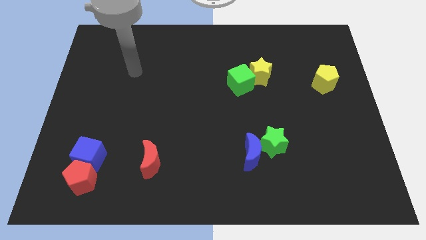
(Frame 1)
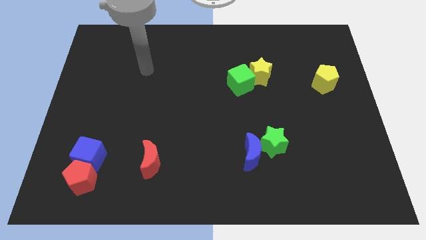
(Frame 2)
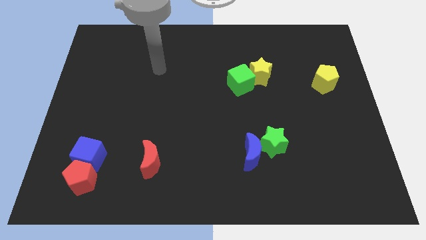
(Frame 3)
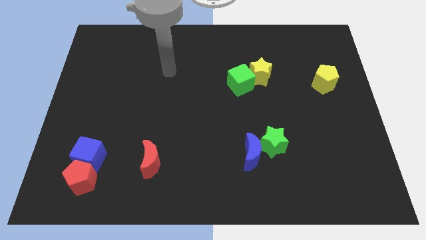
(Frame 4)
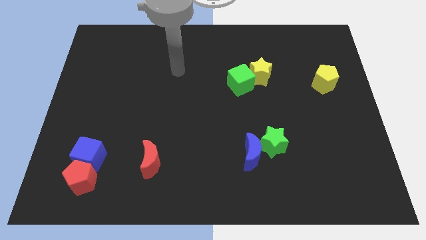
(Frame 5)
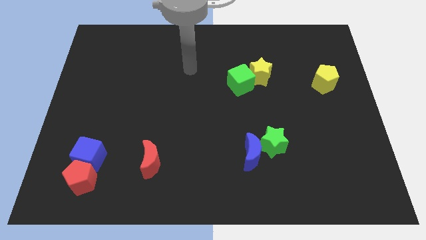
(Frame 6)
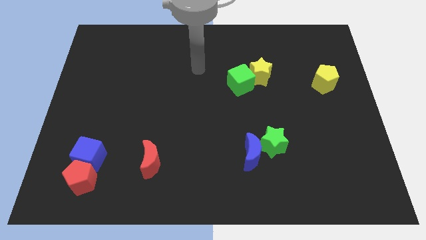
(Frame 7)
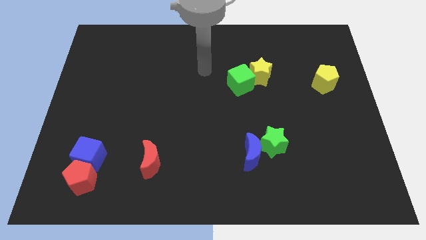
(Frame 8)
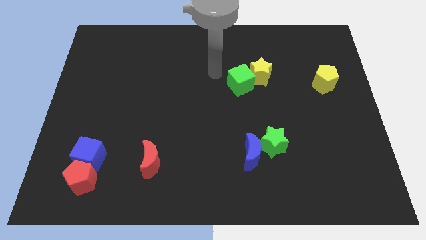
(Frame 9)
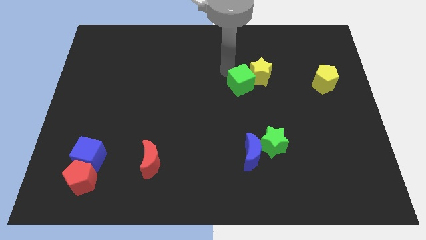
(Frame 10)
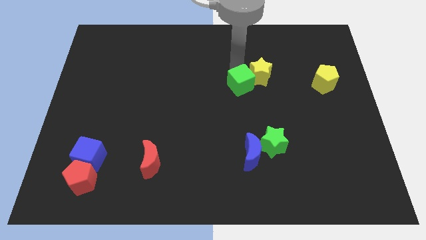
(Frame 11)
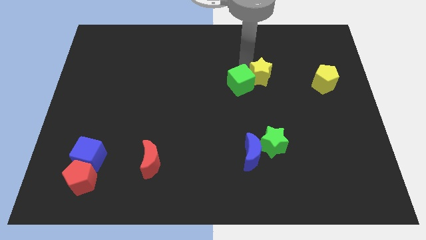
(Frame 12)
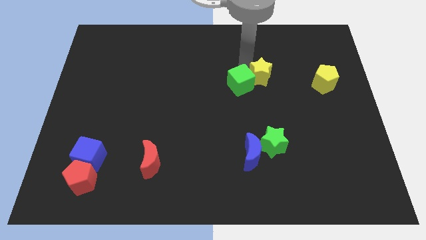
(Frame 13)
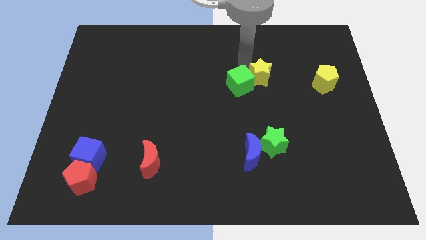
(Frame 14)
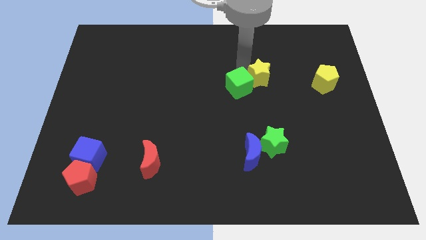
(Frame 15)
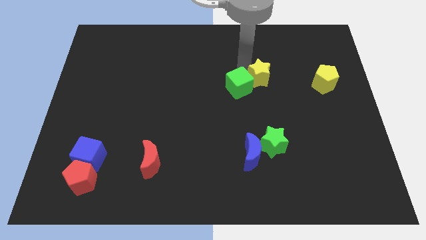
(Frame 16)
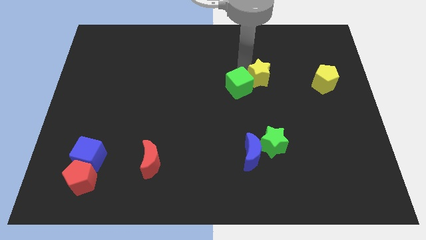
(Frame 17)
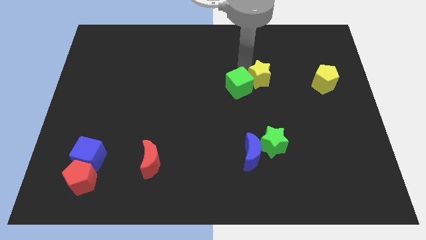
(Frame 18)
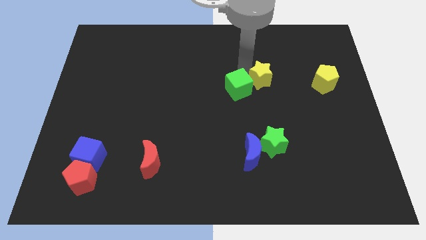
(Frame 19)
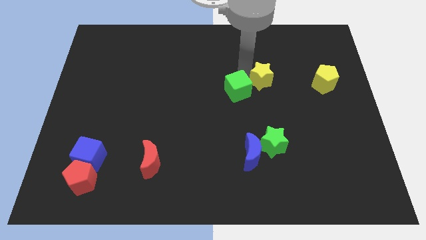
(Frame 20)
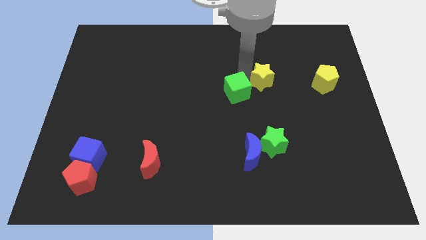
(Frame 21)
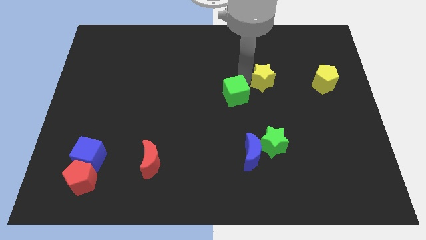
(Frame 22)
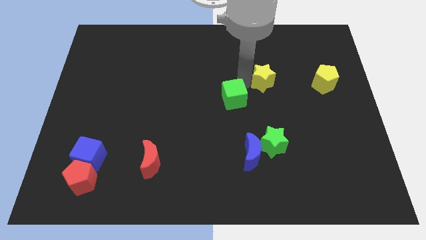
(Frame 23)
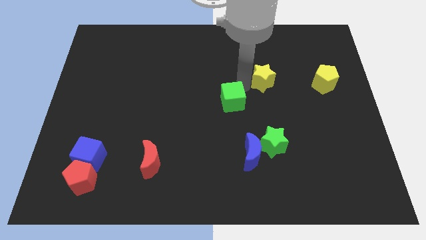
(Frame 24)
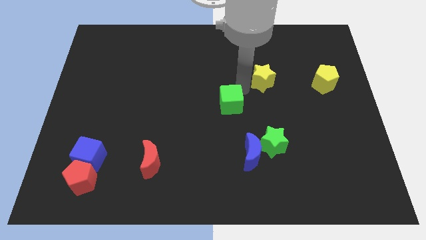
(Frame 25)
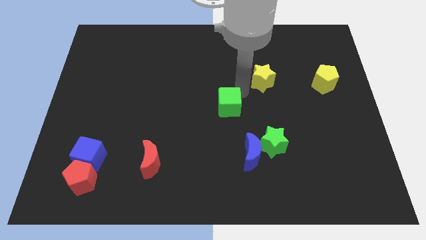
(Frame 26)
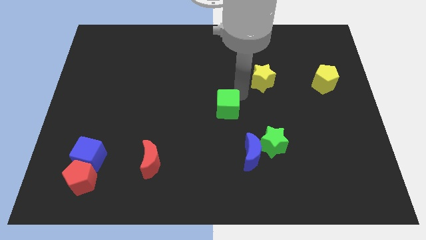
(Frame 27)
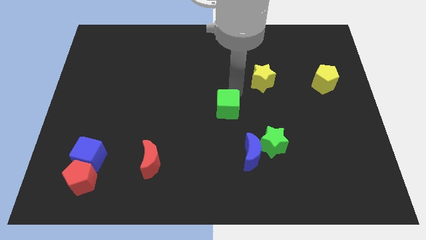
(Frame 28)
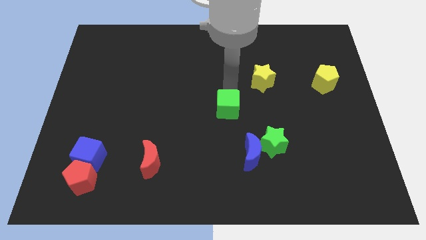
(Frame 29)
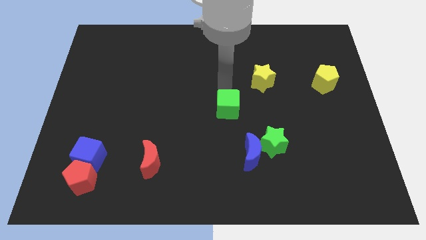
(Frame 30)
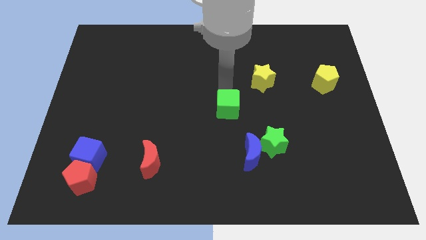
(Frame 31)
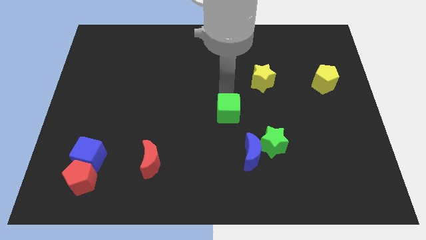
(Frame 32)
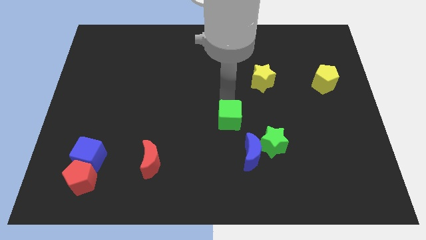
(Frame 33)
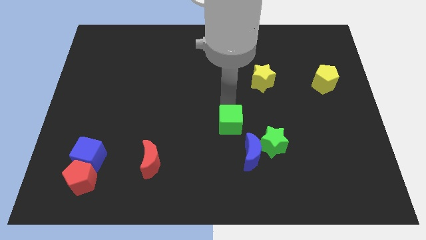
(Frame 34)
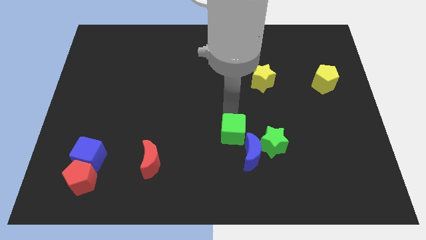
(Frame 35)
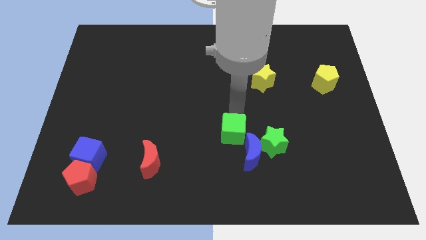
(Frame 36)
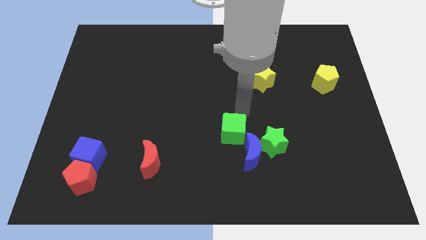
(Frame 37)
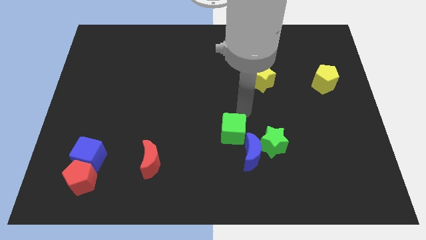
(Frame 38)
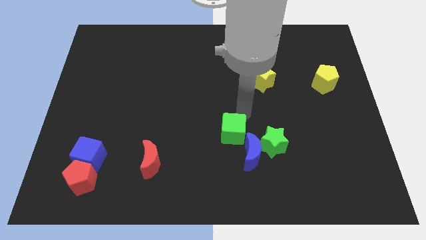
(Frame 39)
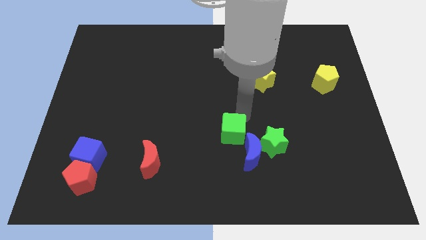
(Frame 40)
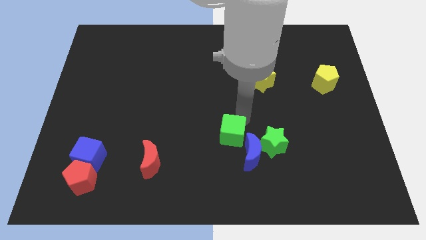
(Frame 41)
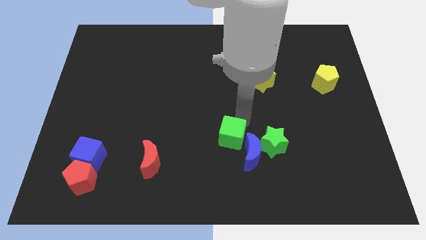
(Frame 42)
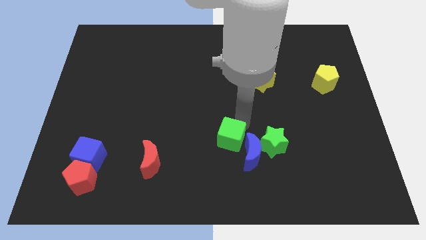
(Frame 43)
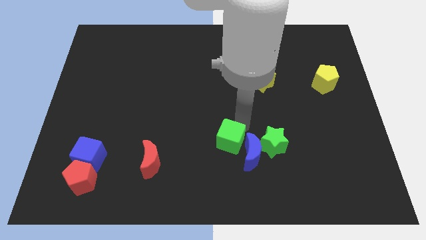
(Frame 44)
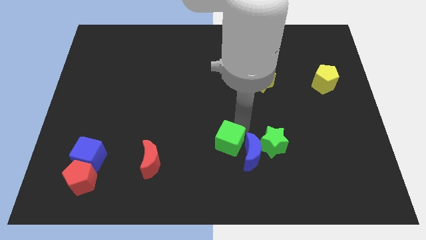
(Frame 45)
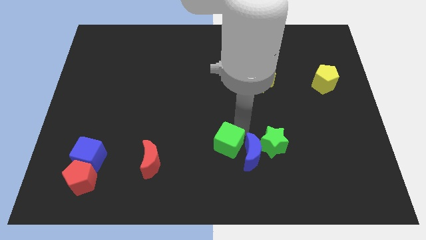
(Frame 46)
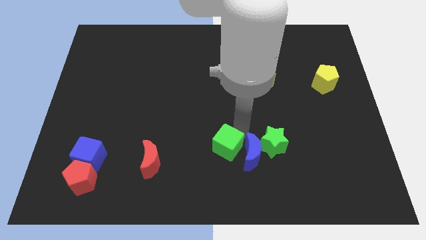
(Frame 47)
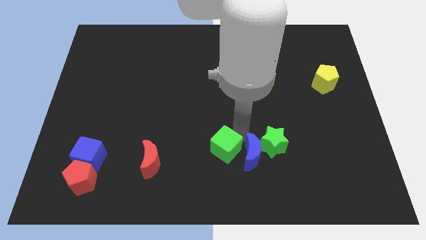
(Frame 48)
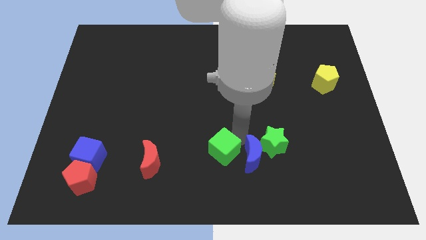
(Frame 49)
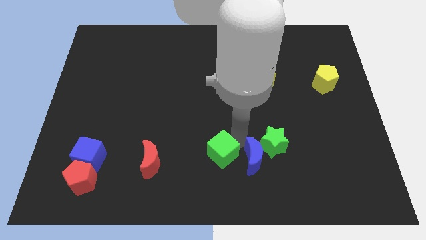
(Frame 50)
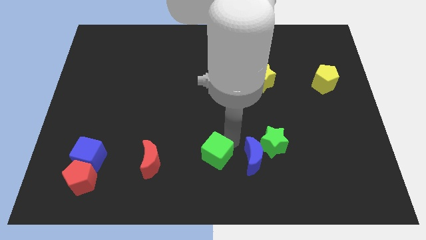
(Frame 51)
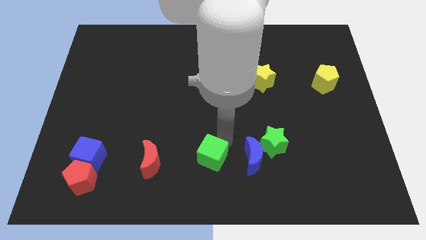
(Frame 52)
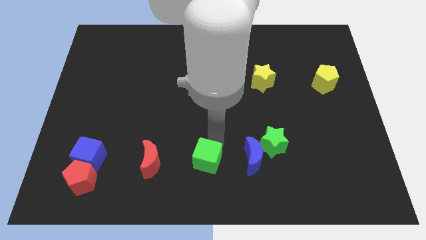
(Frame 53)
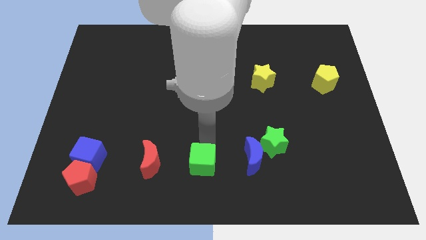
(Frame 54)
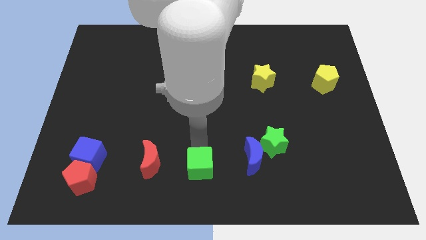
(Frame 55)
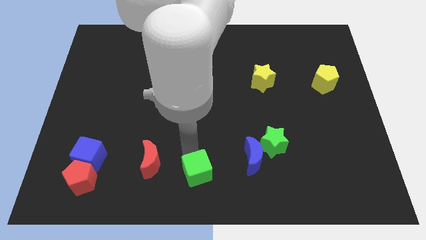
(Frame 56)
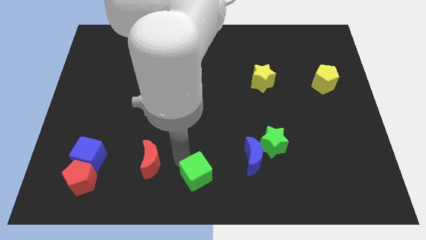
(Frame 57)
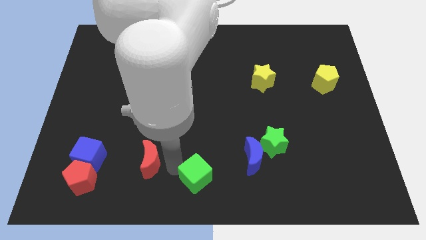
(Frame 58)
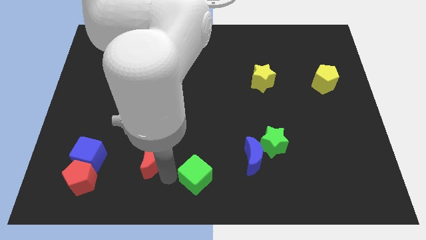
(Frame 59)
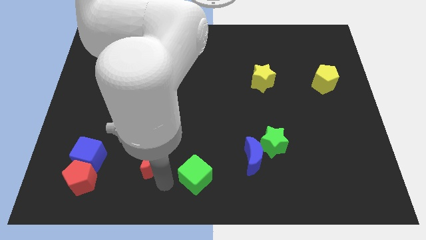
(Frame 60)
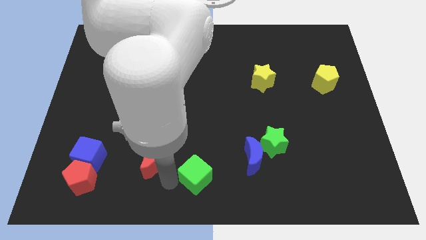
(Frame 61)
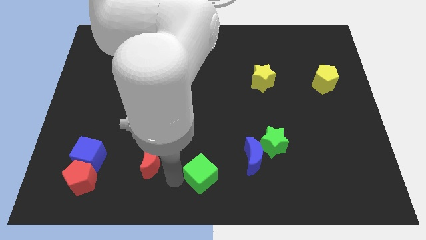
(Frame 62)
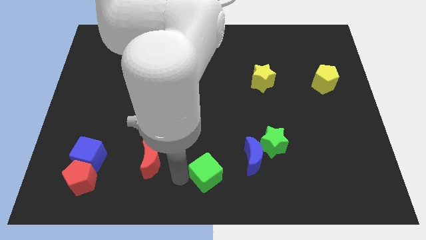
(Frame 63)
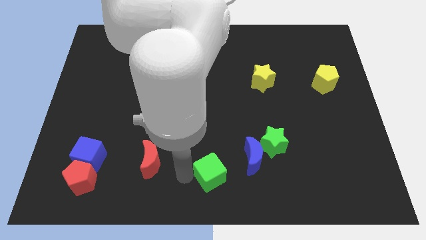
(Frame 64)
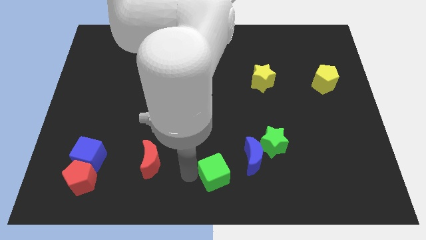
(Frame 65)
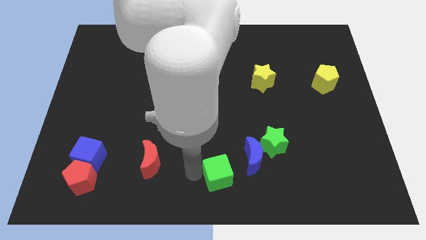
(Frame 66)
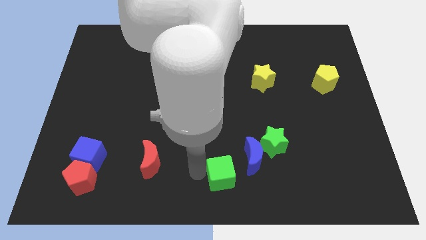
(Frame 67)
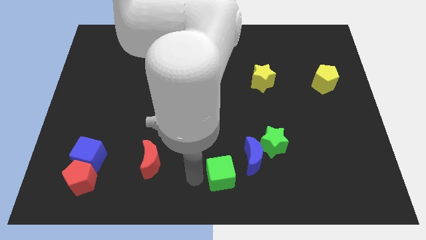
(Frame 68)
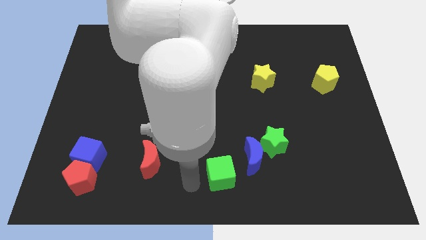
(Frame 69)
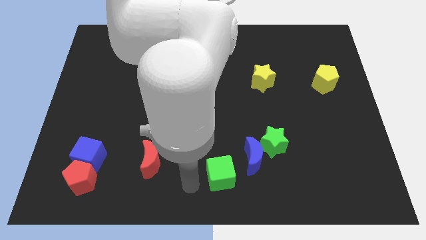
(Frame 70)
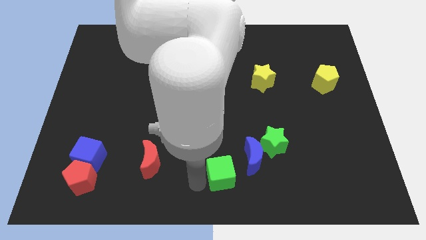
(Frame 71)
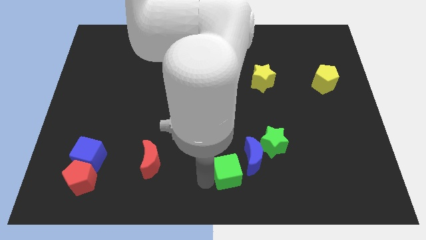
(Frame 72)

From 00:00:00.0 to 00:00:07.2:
move the green cube to the bottom left of the green star

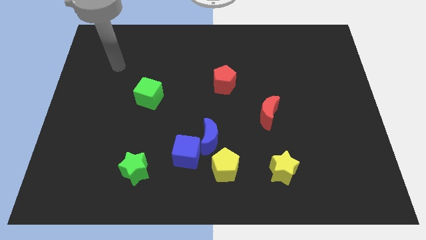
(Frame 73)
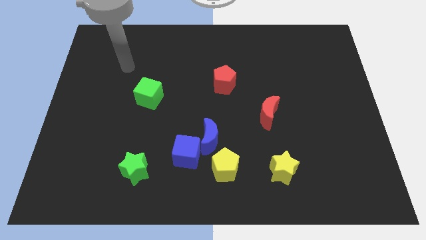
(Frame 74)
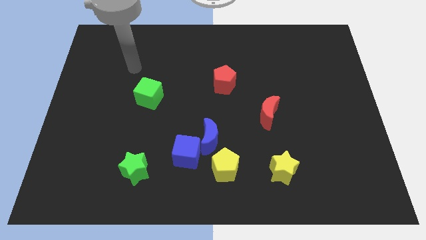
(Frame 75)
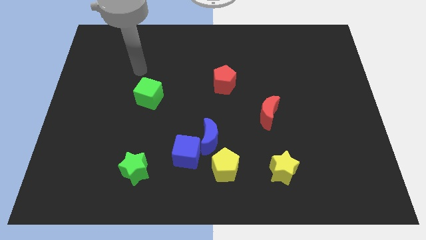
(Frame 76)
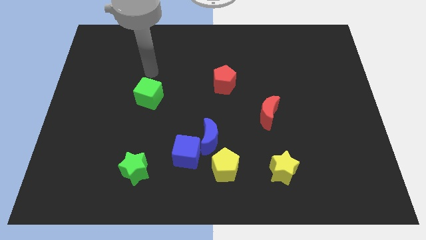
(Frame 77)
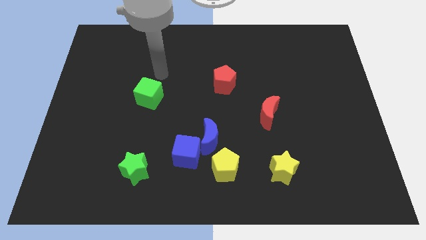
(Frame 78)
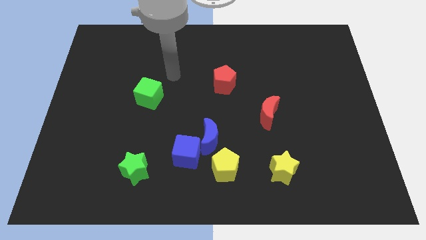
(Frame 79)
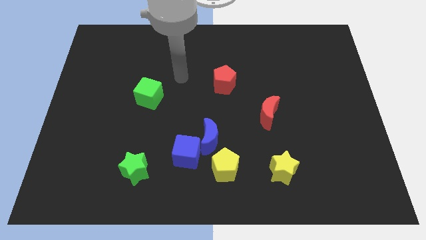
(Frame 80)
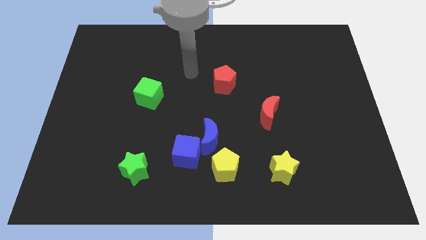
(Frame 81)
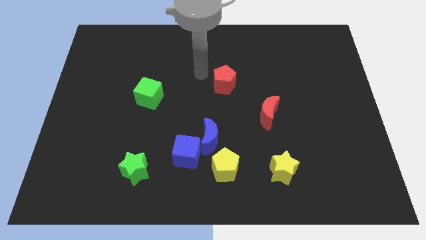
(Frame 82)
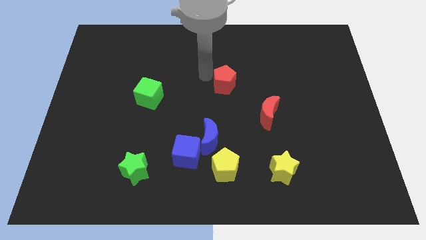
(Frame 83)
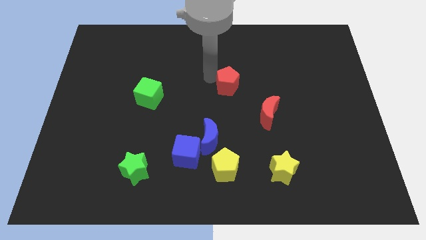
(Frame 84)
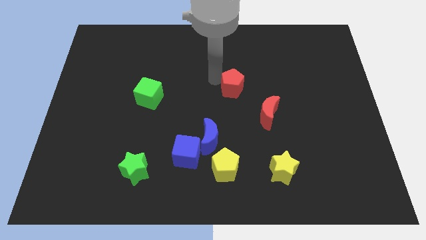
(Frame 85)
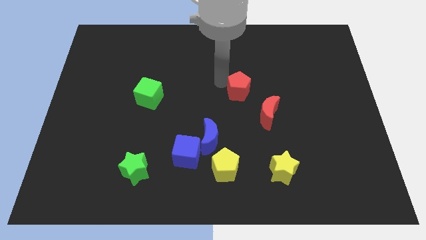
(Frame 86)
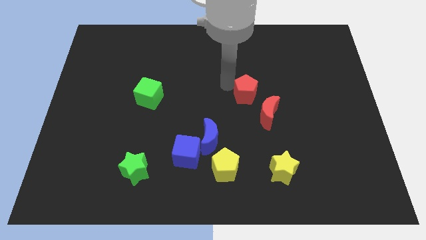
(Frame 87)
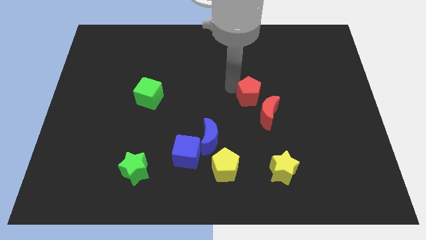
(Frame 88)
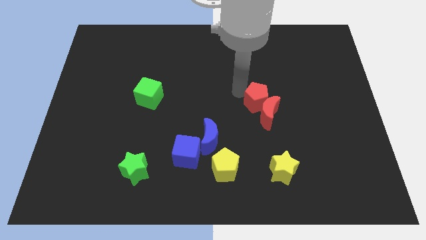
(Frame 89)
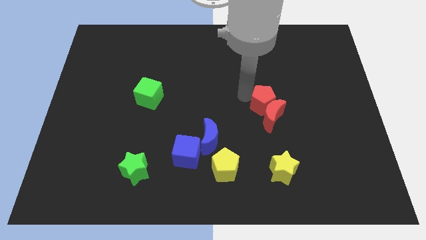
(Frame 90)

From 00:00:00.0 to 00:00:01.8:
move the red pentagon diagonally up and to the right of the red moon
